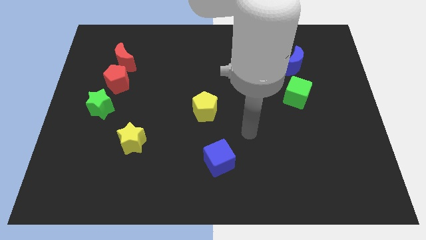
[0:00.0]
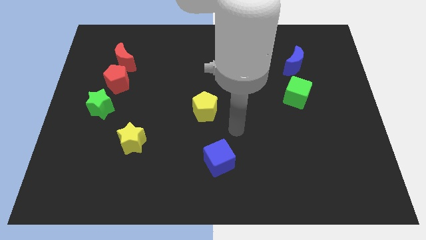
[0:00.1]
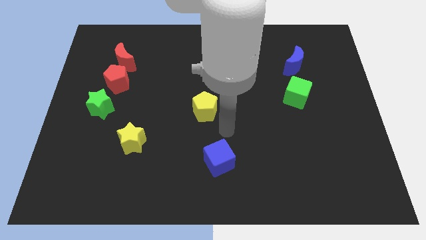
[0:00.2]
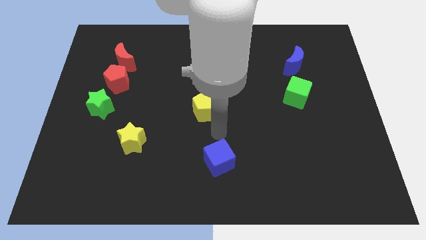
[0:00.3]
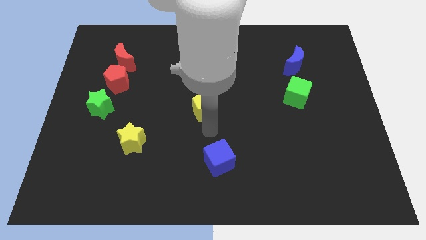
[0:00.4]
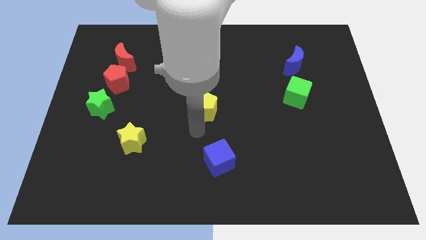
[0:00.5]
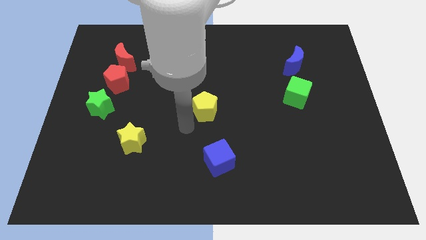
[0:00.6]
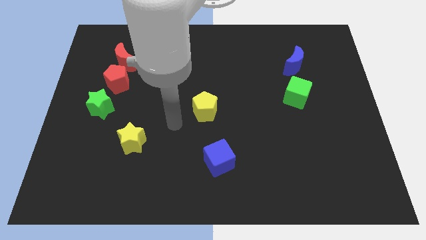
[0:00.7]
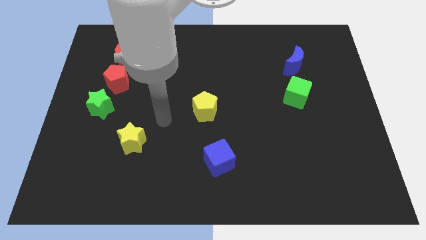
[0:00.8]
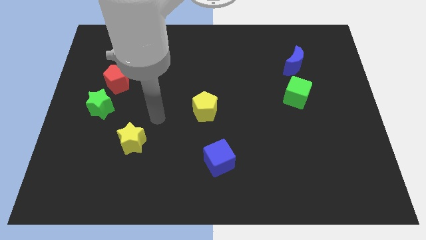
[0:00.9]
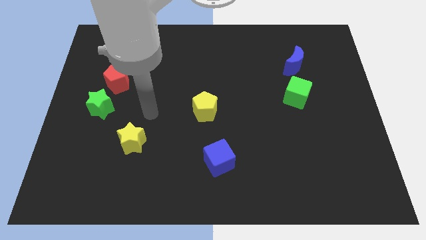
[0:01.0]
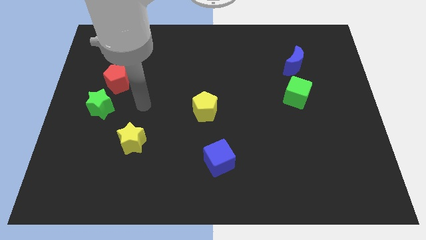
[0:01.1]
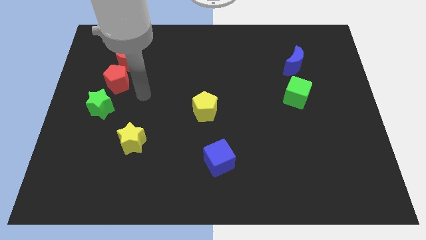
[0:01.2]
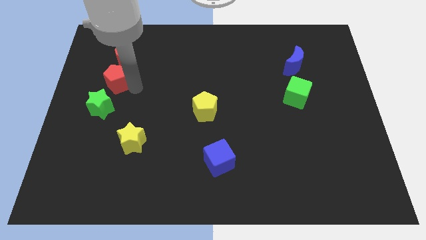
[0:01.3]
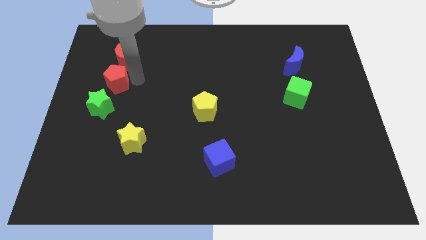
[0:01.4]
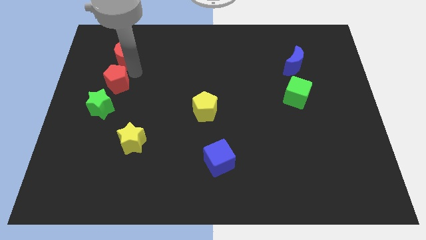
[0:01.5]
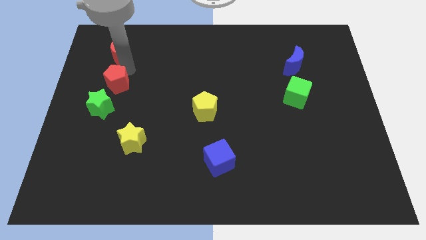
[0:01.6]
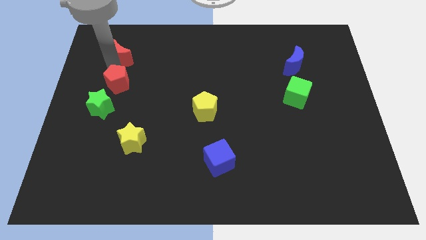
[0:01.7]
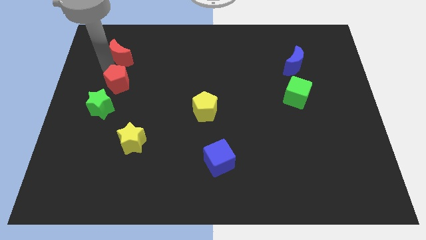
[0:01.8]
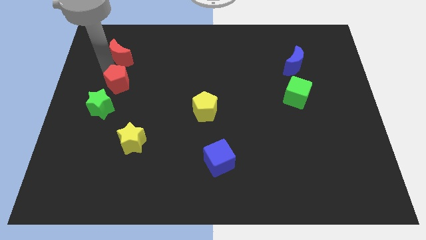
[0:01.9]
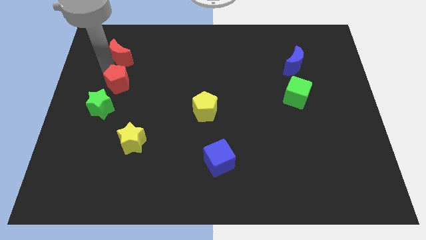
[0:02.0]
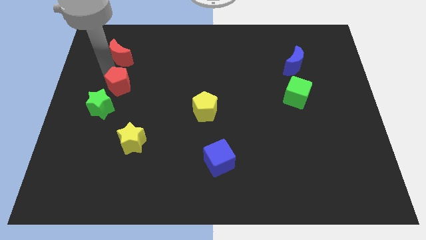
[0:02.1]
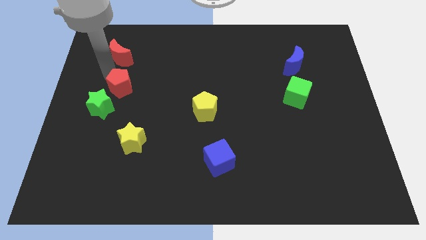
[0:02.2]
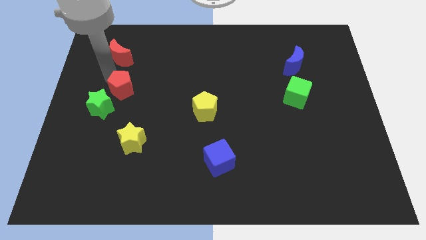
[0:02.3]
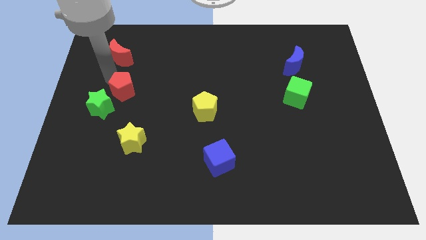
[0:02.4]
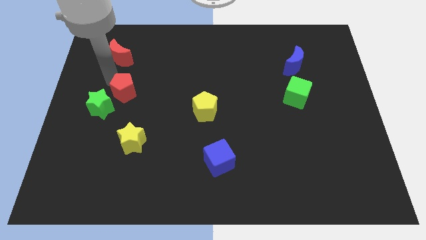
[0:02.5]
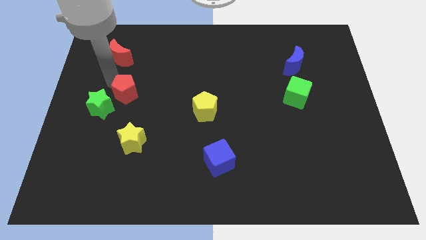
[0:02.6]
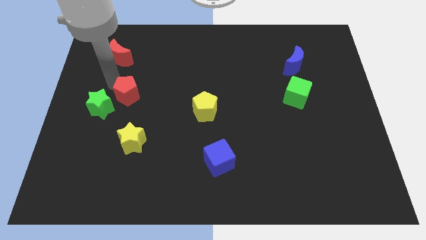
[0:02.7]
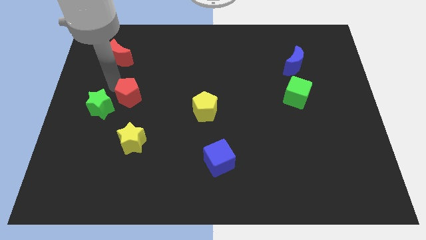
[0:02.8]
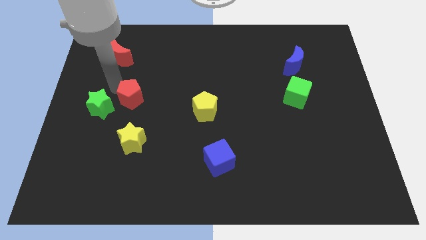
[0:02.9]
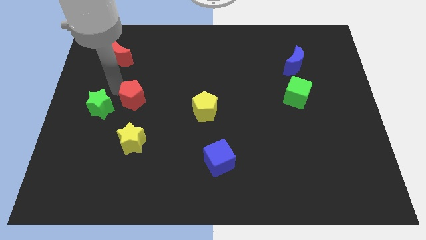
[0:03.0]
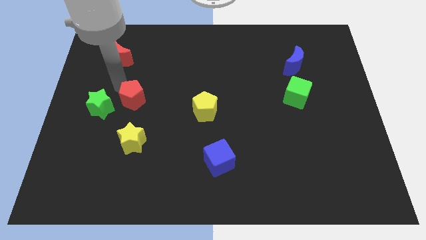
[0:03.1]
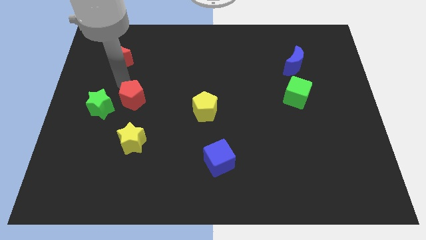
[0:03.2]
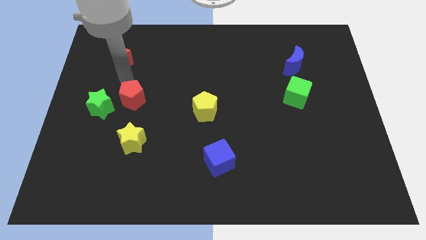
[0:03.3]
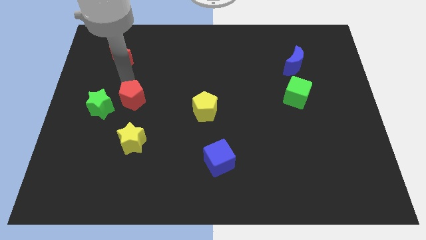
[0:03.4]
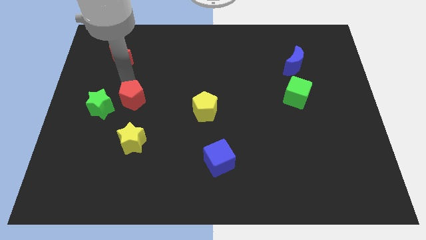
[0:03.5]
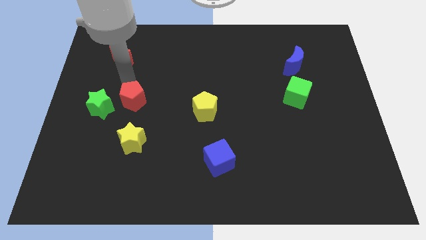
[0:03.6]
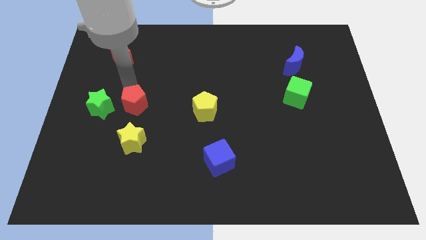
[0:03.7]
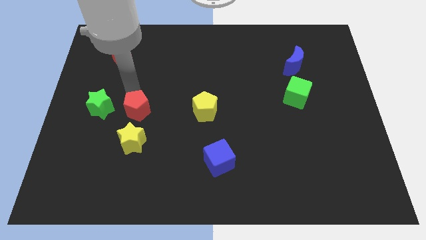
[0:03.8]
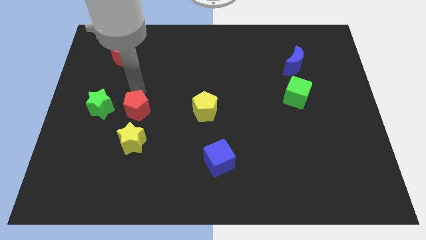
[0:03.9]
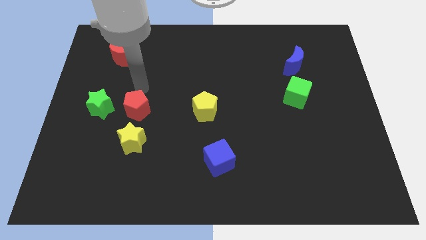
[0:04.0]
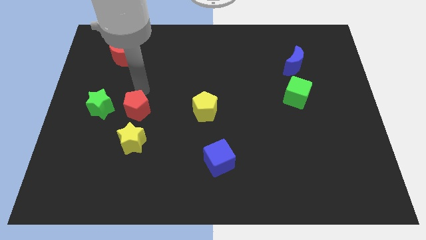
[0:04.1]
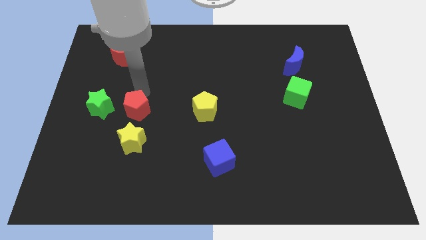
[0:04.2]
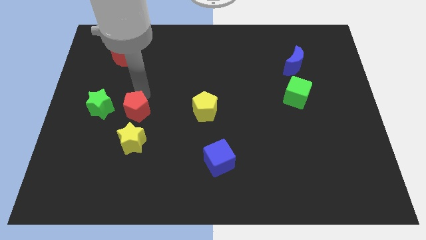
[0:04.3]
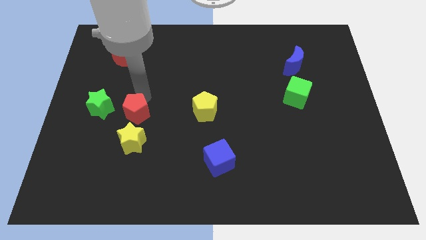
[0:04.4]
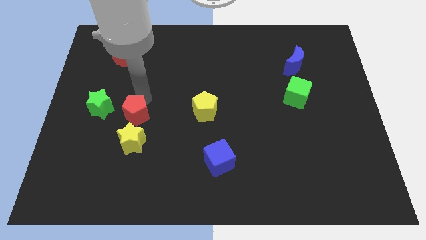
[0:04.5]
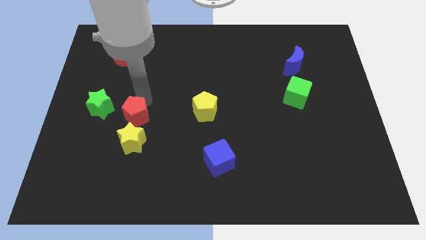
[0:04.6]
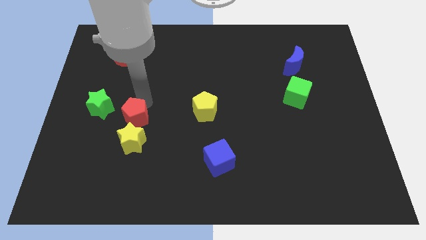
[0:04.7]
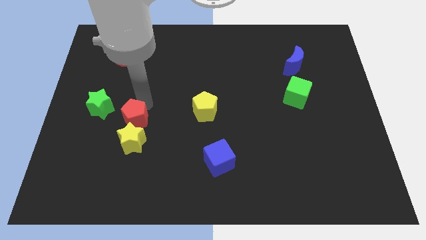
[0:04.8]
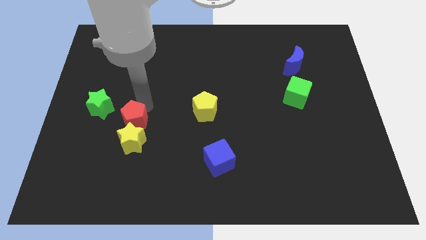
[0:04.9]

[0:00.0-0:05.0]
push the red pentagon towards the yellow star
